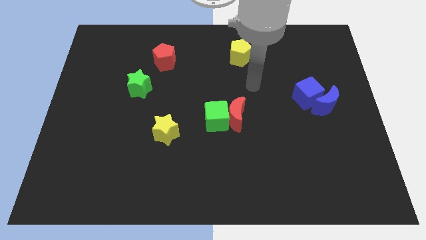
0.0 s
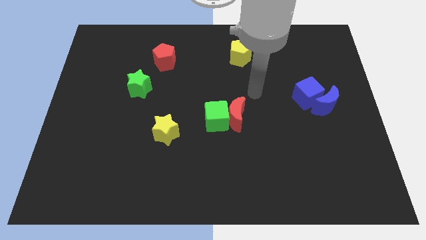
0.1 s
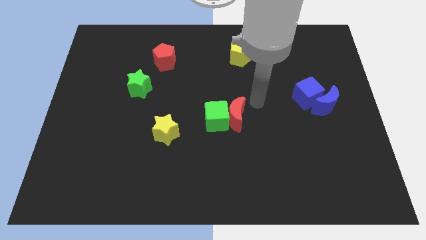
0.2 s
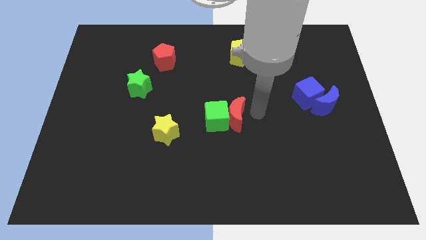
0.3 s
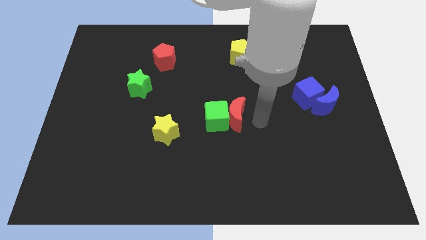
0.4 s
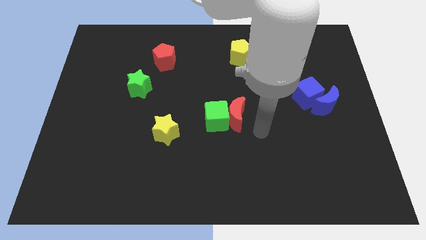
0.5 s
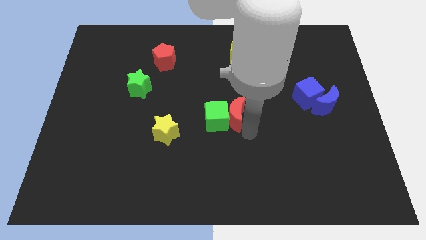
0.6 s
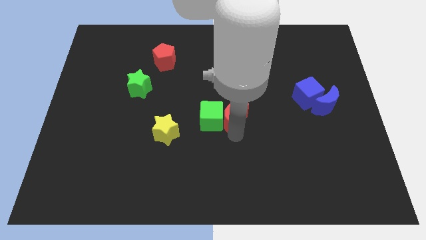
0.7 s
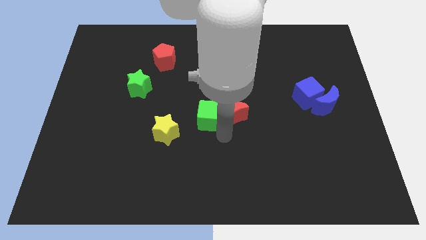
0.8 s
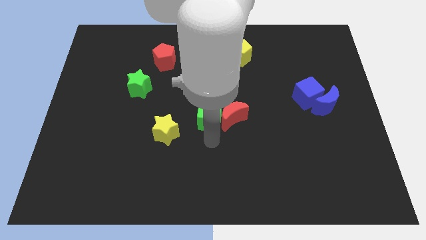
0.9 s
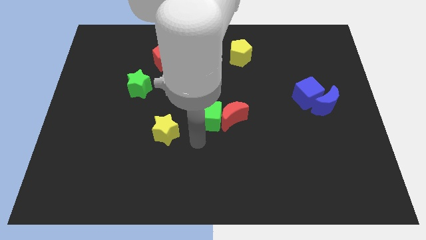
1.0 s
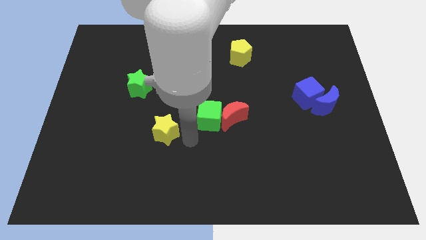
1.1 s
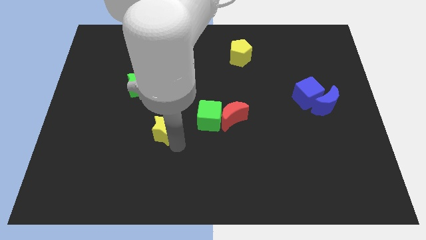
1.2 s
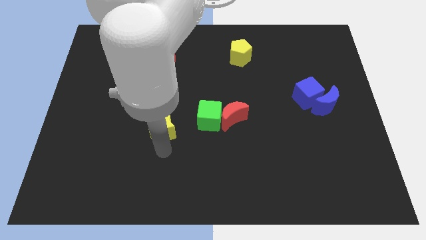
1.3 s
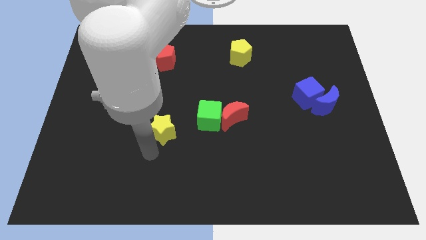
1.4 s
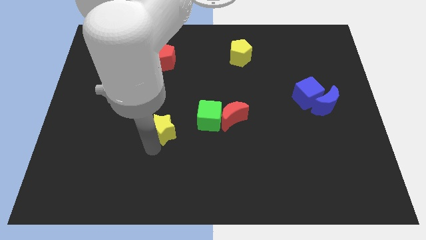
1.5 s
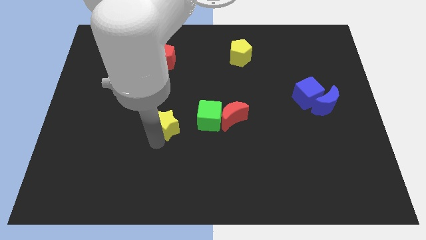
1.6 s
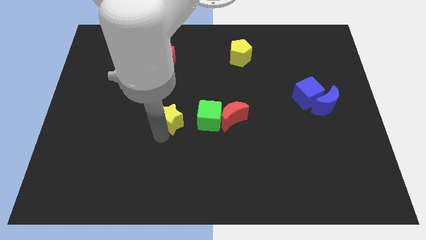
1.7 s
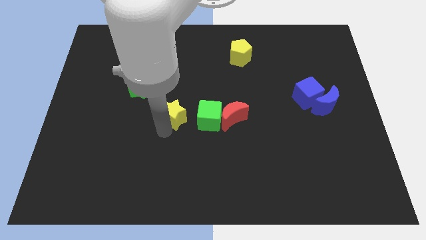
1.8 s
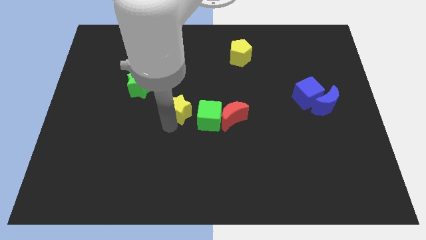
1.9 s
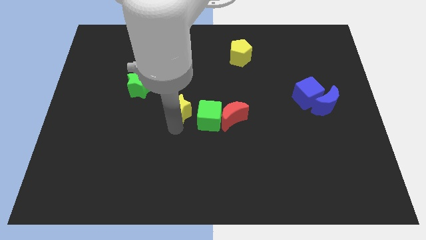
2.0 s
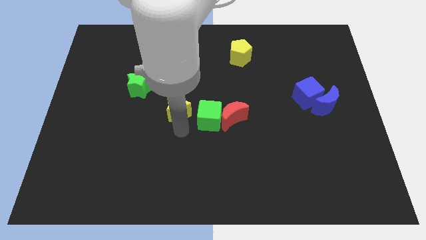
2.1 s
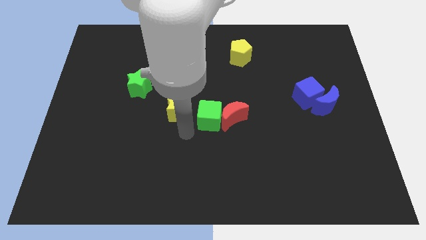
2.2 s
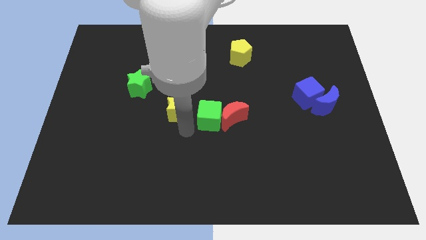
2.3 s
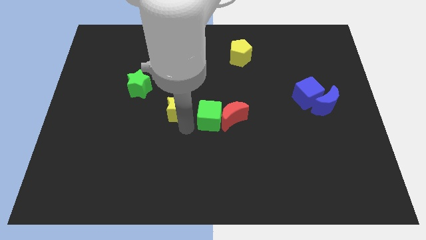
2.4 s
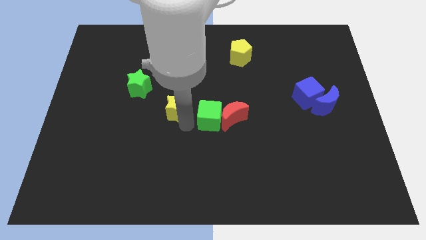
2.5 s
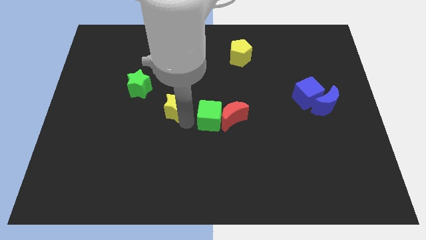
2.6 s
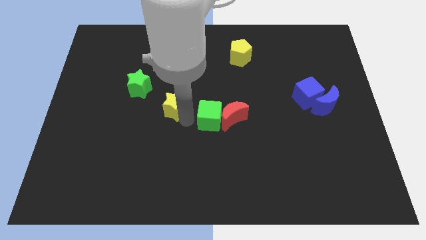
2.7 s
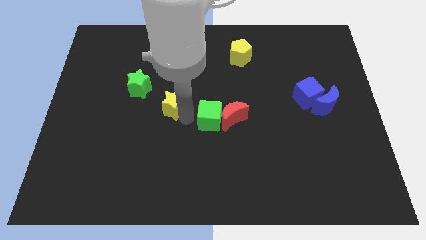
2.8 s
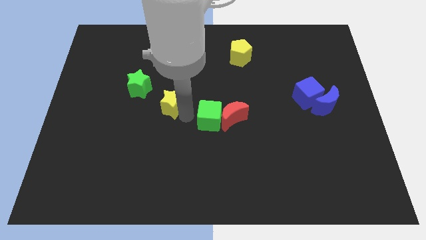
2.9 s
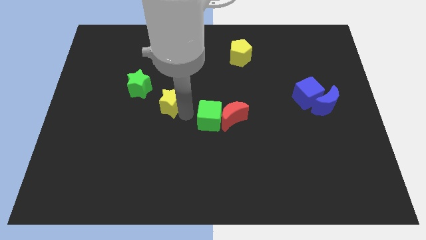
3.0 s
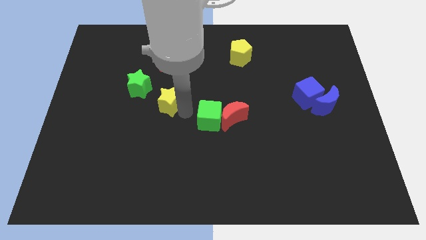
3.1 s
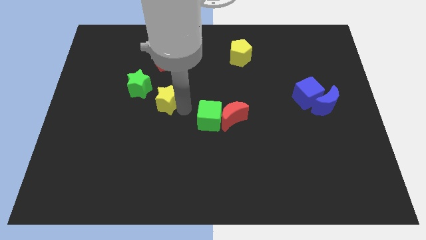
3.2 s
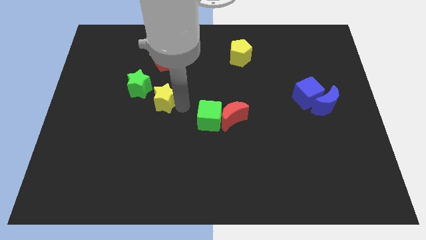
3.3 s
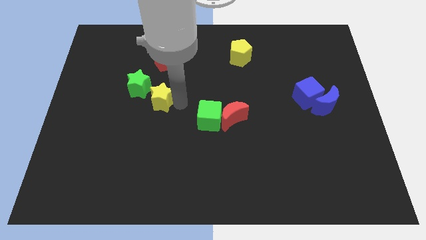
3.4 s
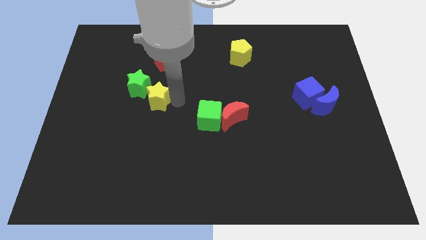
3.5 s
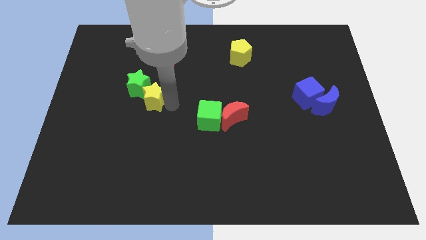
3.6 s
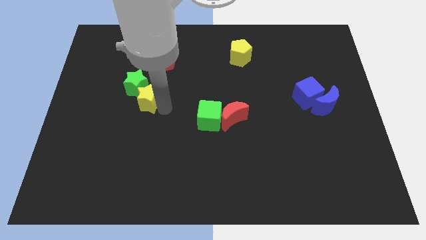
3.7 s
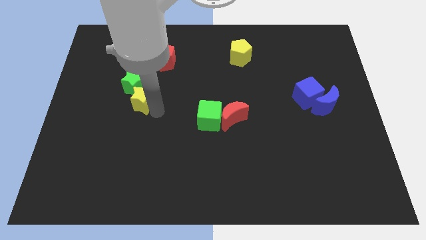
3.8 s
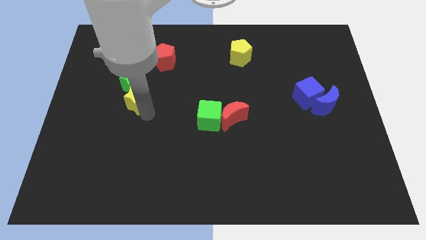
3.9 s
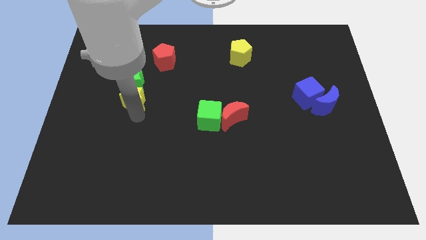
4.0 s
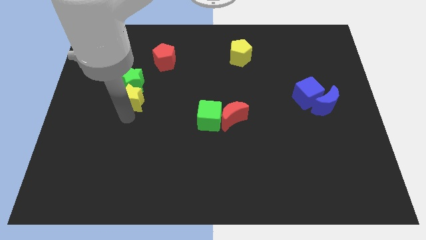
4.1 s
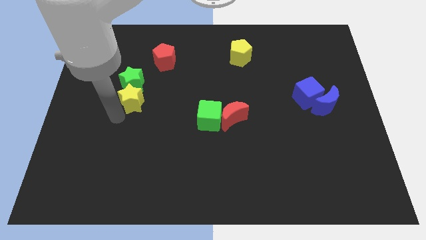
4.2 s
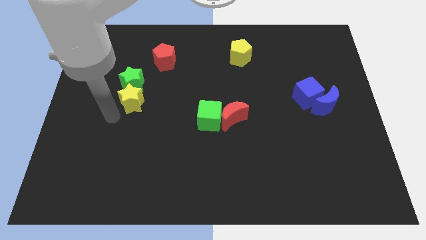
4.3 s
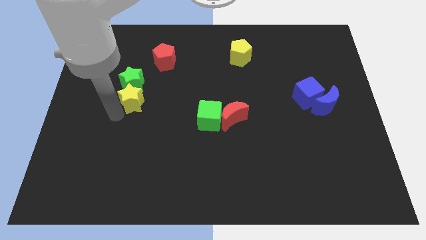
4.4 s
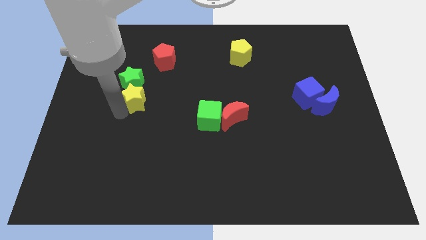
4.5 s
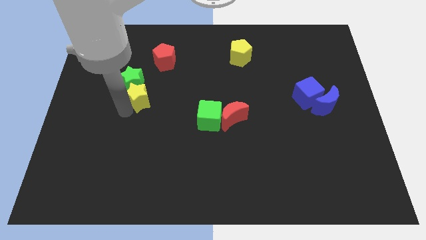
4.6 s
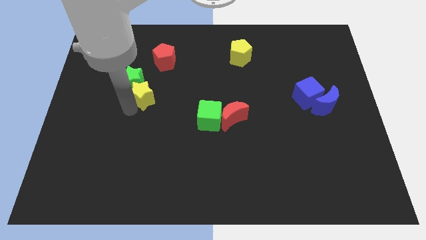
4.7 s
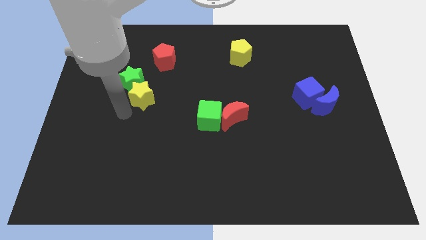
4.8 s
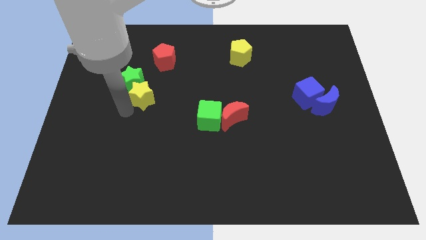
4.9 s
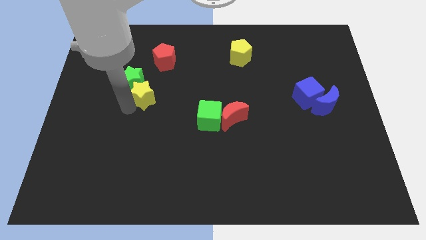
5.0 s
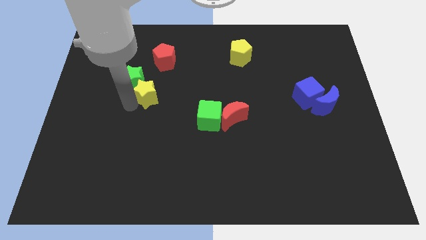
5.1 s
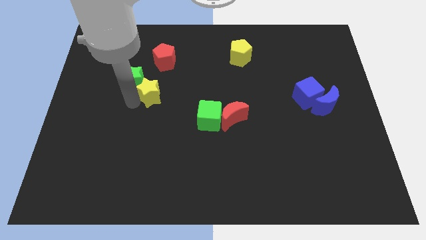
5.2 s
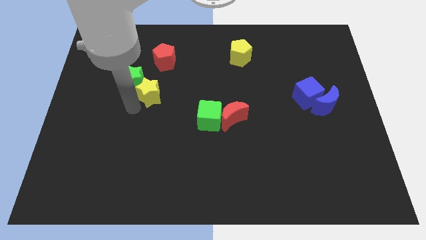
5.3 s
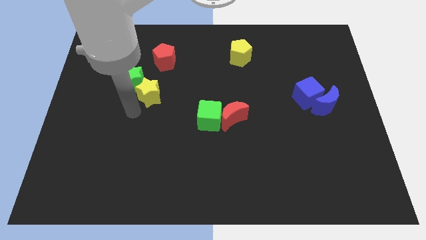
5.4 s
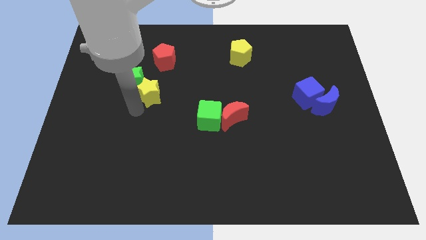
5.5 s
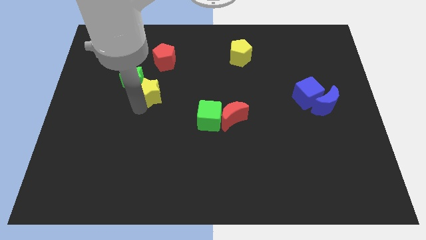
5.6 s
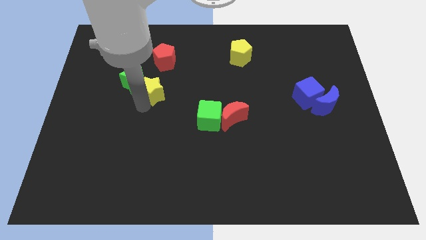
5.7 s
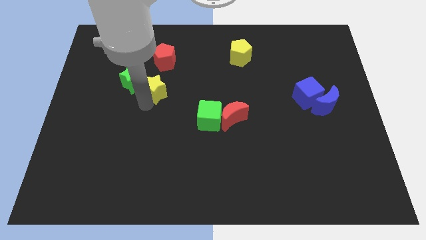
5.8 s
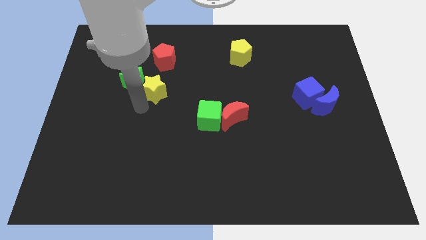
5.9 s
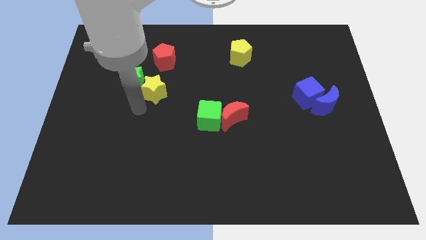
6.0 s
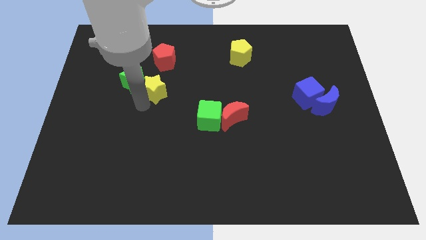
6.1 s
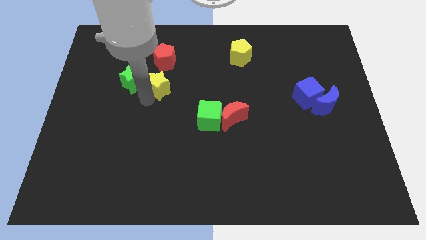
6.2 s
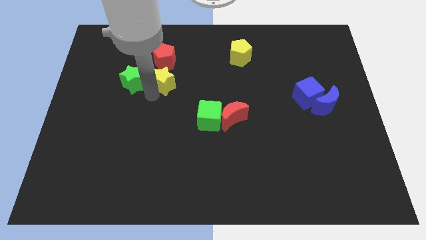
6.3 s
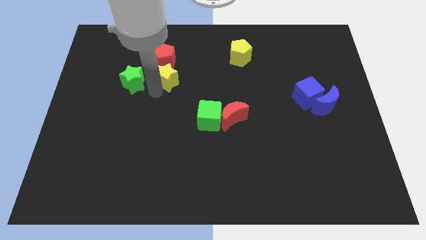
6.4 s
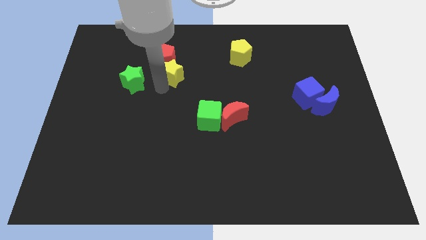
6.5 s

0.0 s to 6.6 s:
push the yellow star to the red pentagon

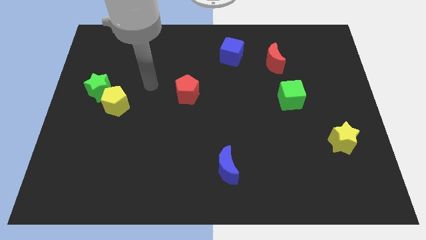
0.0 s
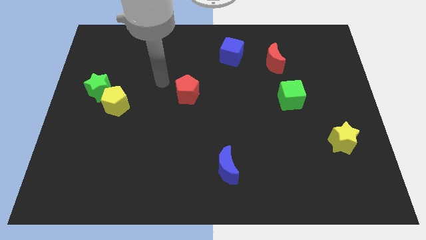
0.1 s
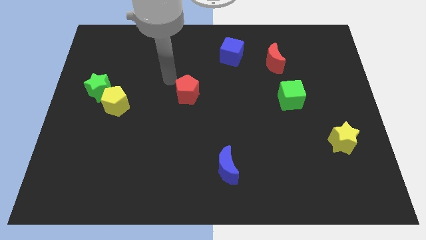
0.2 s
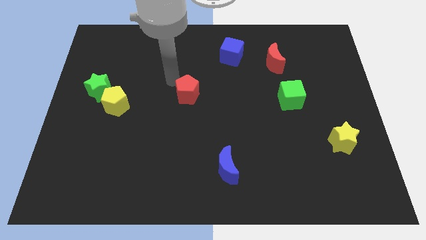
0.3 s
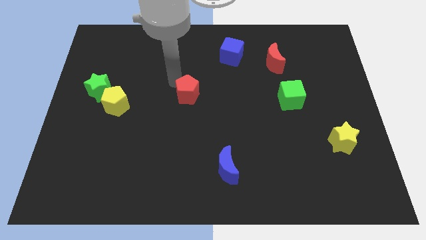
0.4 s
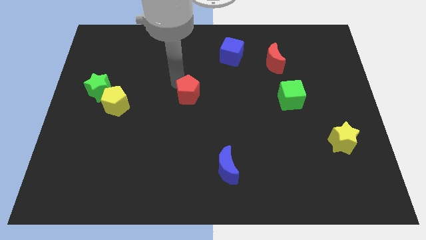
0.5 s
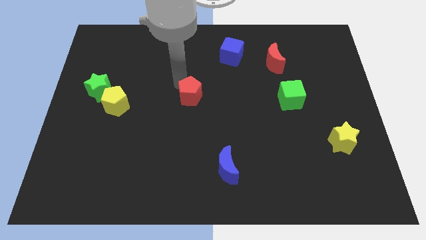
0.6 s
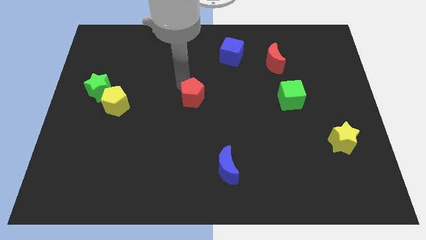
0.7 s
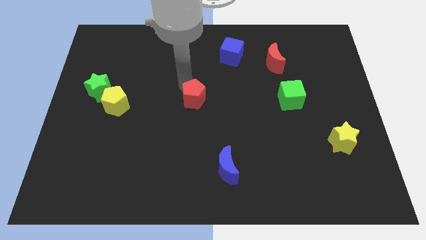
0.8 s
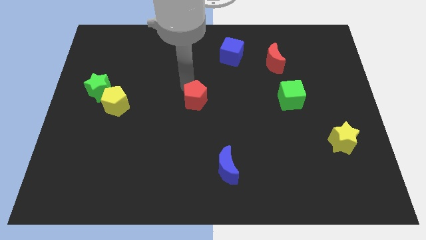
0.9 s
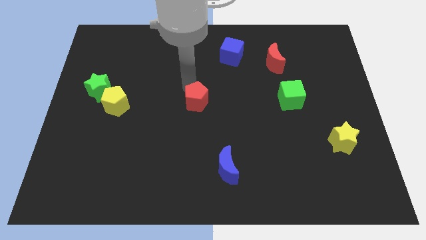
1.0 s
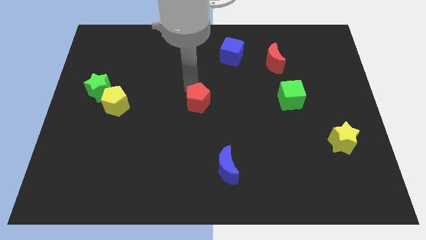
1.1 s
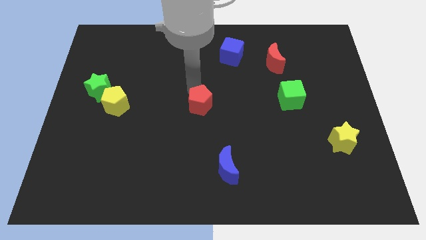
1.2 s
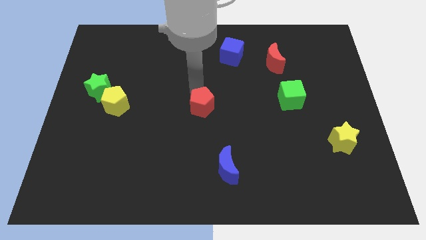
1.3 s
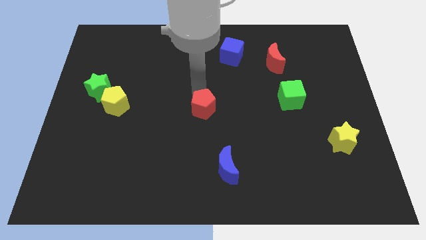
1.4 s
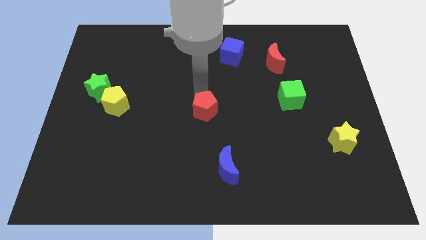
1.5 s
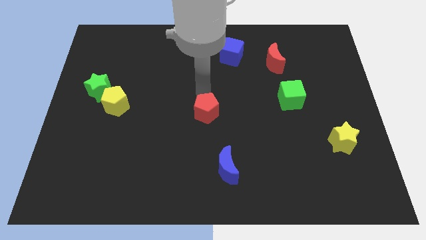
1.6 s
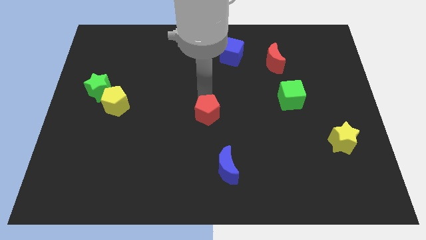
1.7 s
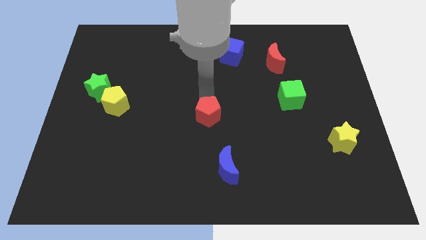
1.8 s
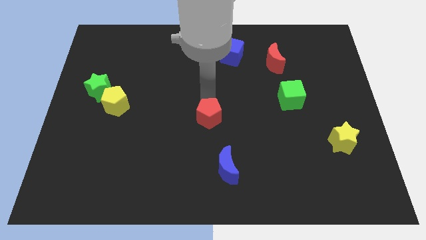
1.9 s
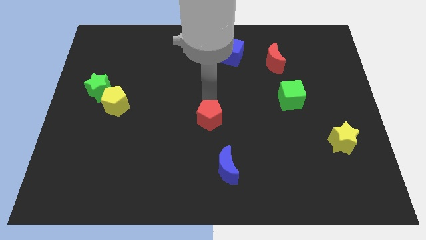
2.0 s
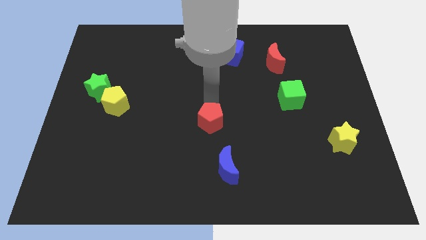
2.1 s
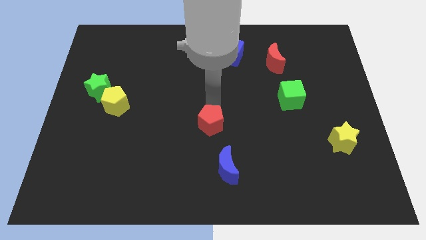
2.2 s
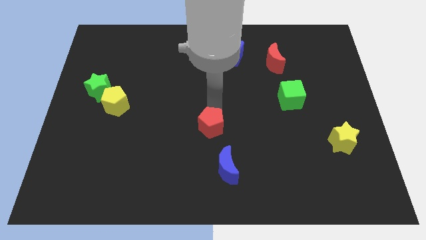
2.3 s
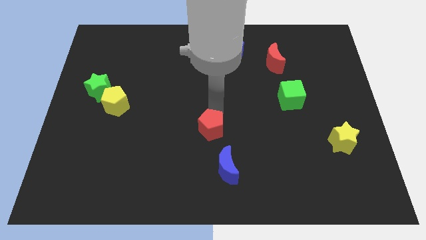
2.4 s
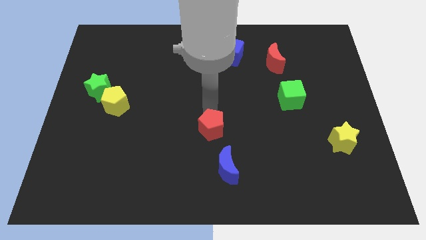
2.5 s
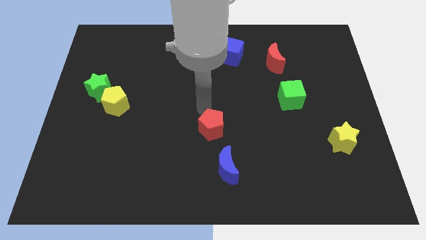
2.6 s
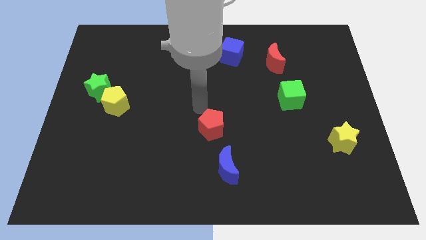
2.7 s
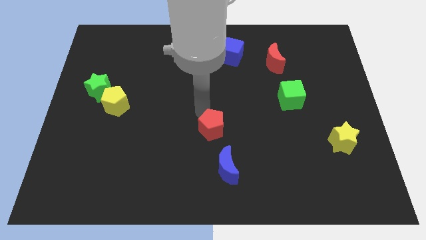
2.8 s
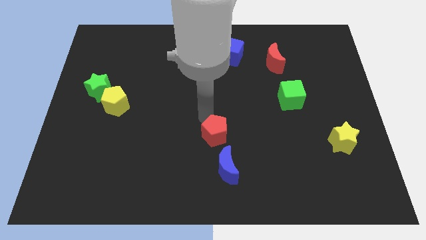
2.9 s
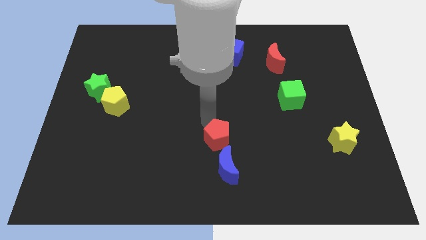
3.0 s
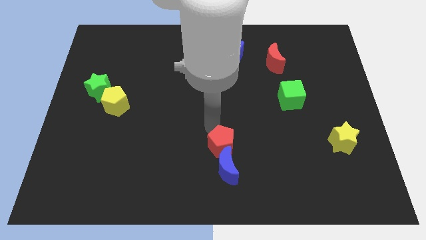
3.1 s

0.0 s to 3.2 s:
move the red pentagon to the blue moon
